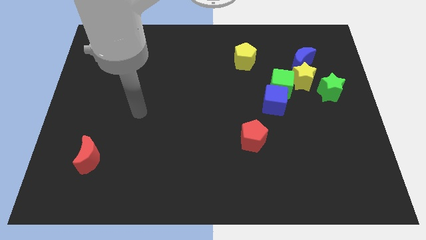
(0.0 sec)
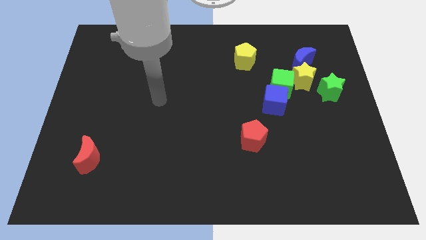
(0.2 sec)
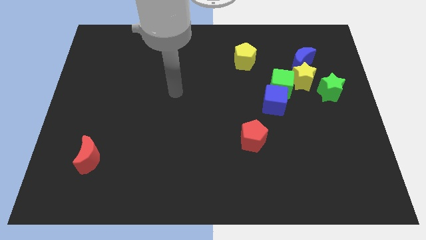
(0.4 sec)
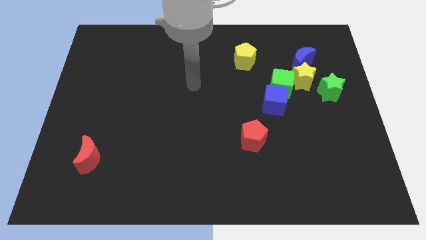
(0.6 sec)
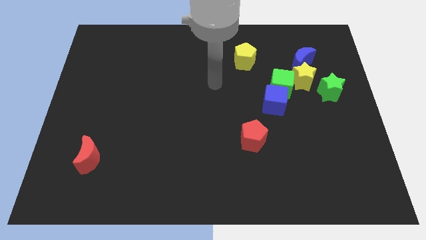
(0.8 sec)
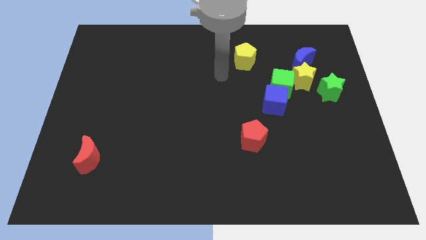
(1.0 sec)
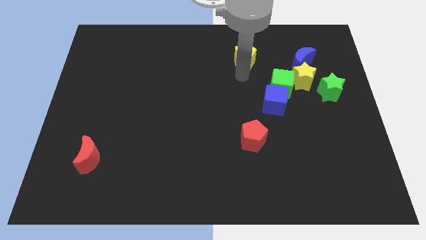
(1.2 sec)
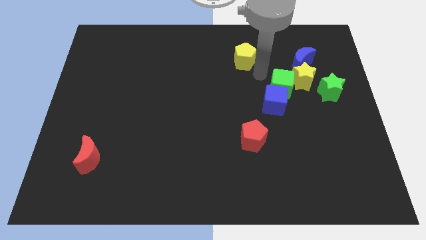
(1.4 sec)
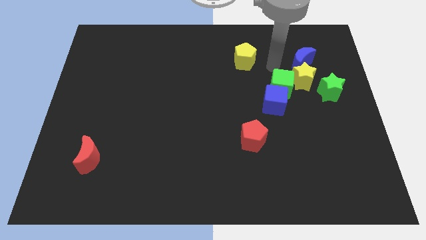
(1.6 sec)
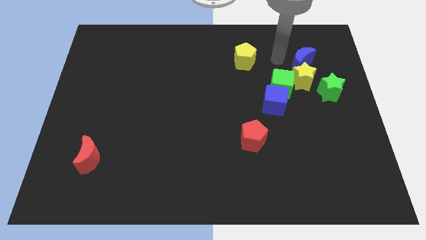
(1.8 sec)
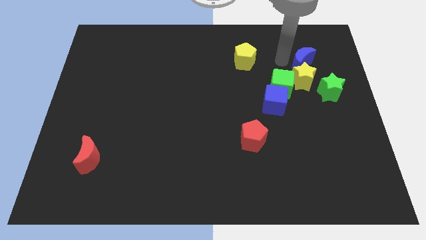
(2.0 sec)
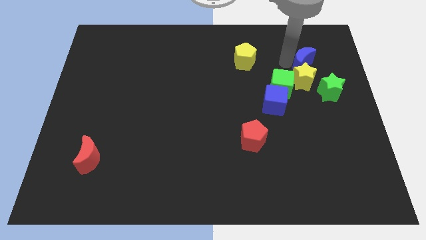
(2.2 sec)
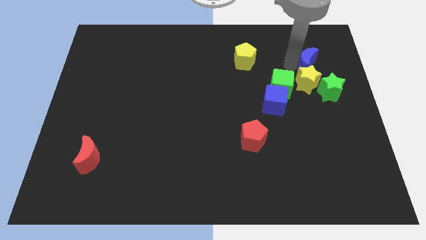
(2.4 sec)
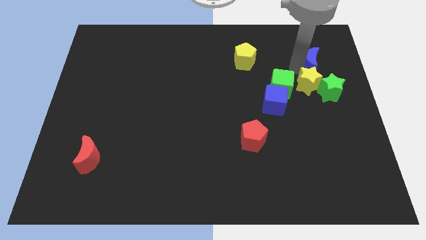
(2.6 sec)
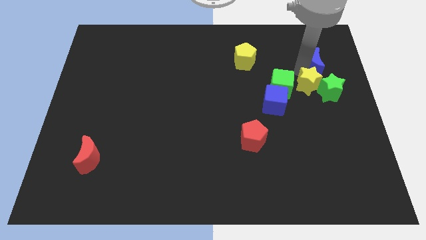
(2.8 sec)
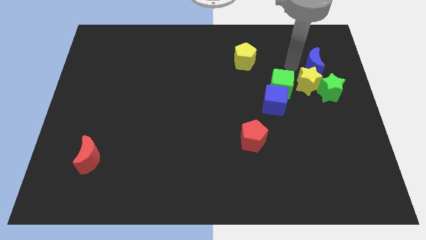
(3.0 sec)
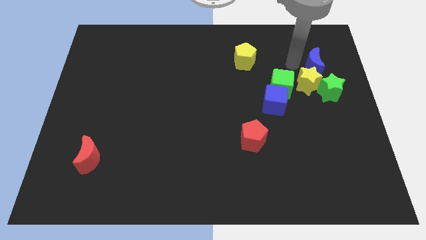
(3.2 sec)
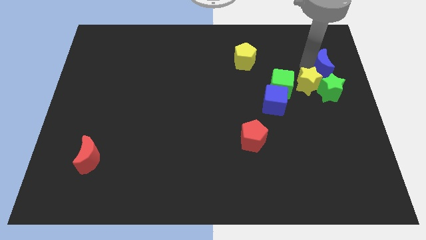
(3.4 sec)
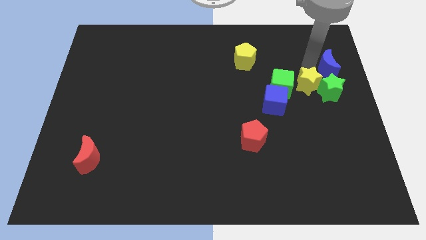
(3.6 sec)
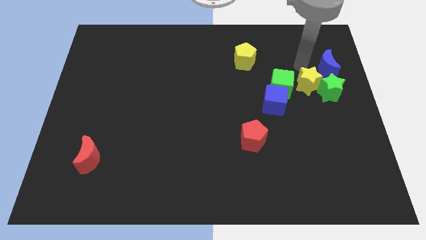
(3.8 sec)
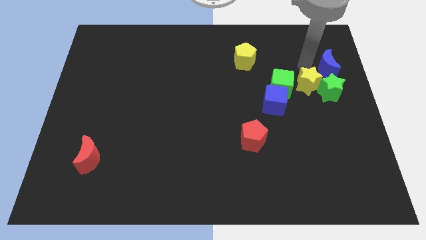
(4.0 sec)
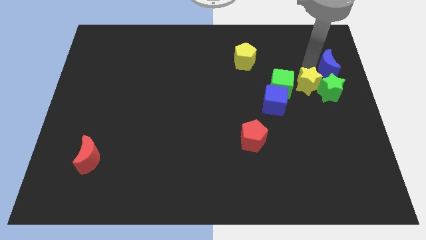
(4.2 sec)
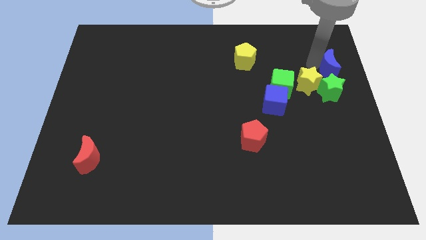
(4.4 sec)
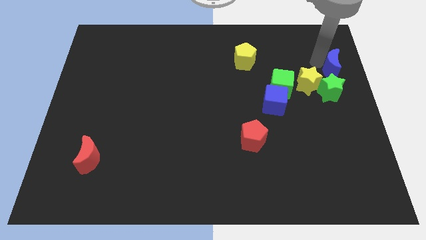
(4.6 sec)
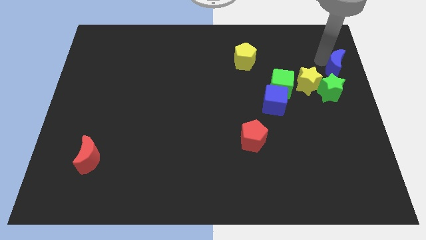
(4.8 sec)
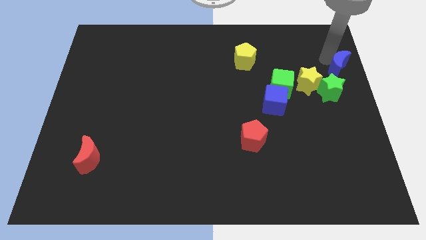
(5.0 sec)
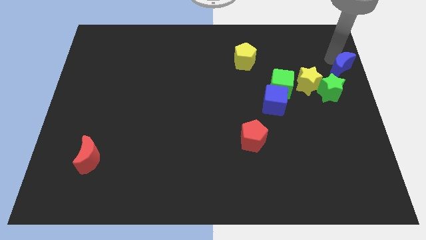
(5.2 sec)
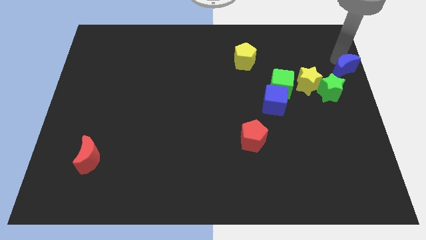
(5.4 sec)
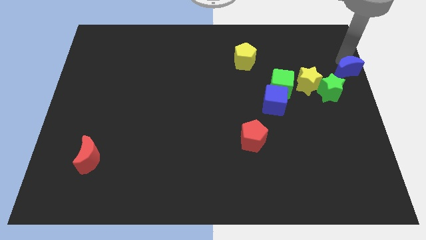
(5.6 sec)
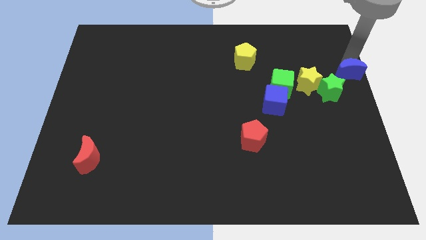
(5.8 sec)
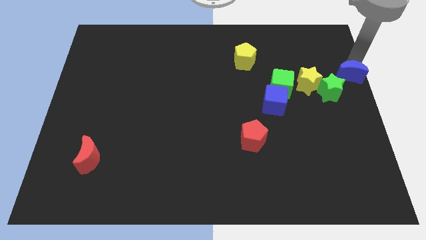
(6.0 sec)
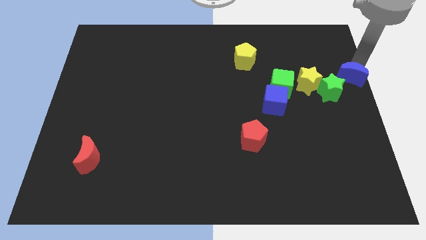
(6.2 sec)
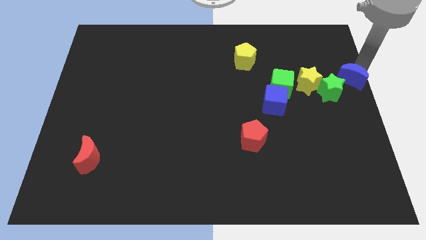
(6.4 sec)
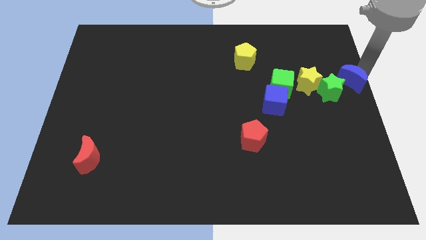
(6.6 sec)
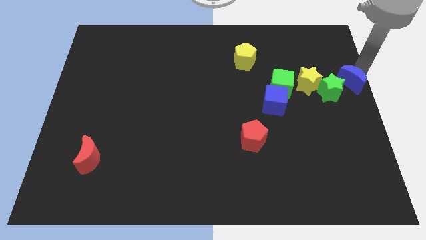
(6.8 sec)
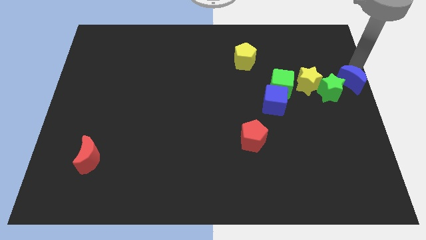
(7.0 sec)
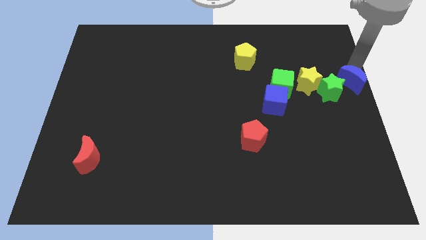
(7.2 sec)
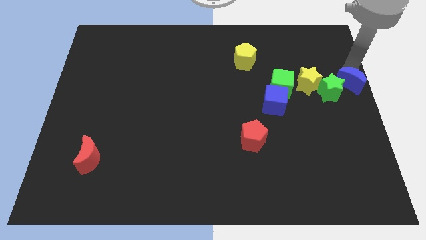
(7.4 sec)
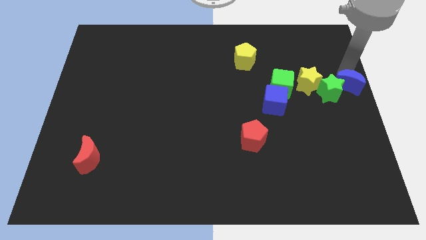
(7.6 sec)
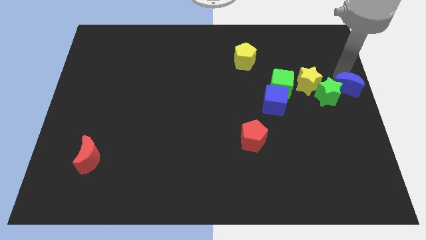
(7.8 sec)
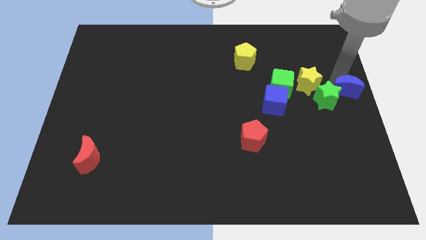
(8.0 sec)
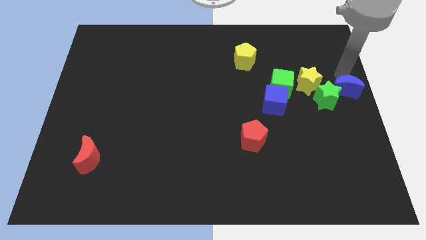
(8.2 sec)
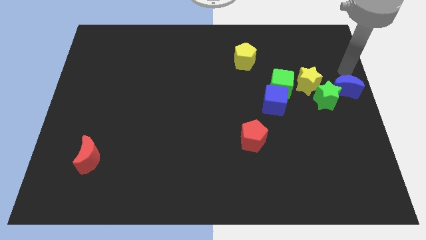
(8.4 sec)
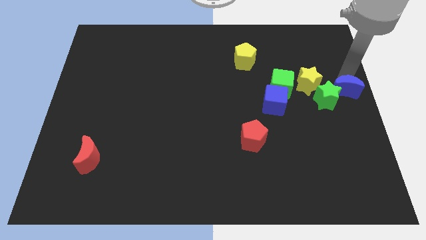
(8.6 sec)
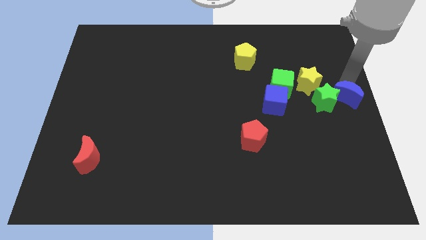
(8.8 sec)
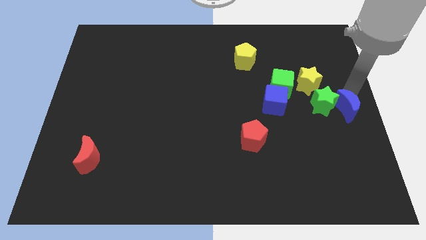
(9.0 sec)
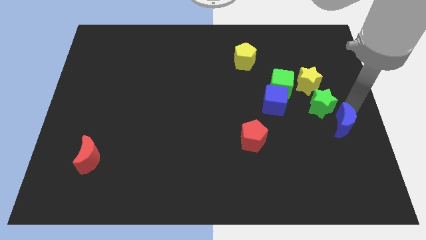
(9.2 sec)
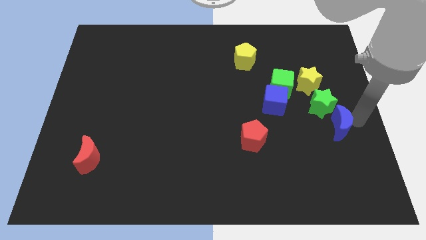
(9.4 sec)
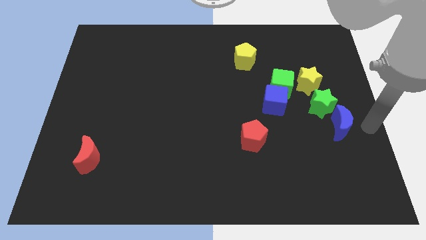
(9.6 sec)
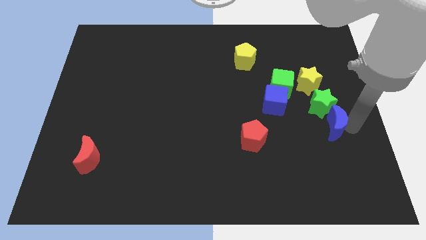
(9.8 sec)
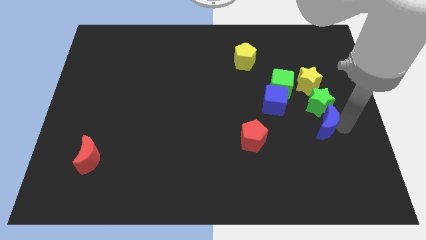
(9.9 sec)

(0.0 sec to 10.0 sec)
slide the blue moon diagonally down and to the left of the green star

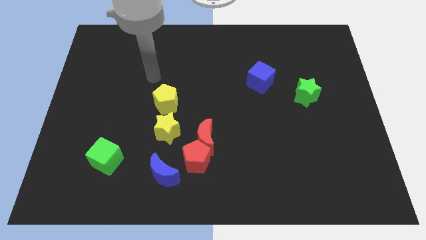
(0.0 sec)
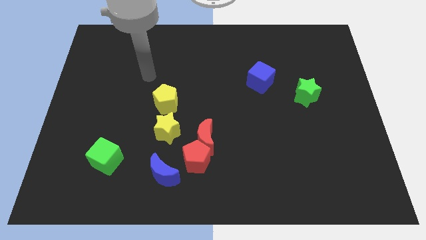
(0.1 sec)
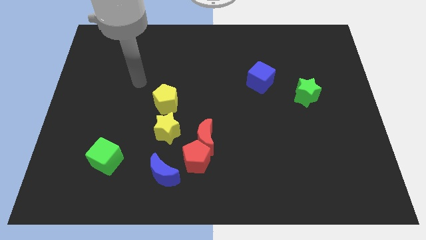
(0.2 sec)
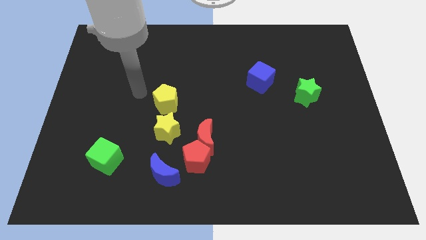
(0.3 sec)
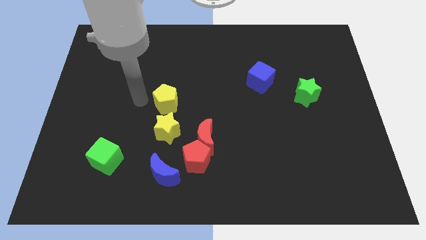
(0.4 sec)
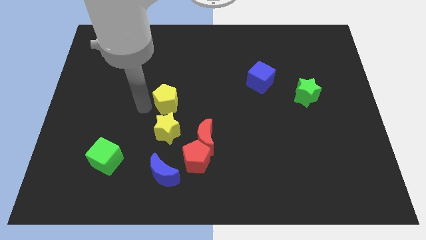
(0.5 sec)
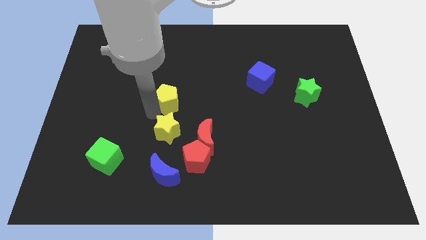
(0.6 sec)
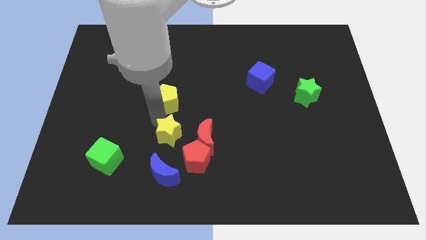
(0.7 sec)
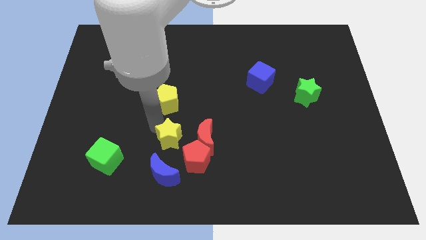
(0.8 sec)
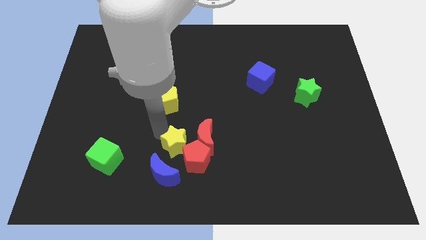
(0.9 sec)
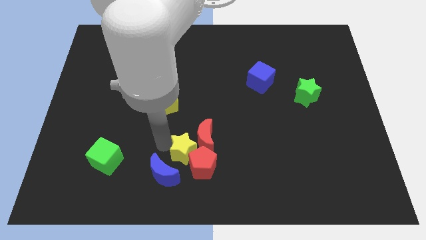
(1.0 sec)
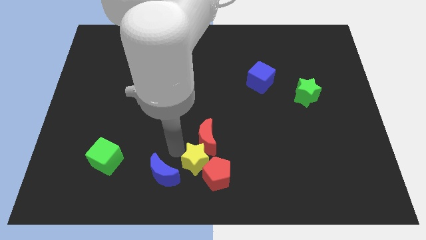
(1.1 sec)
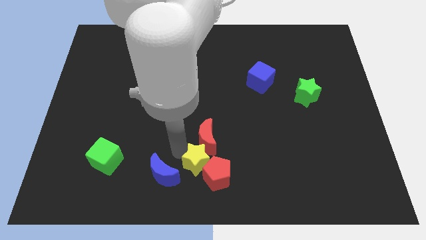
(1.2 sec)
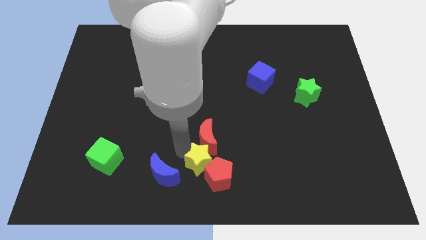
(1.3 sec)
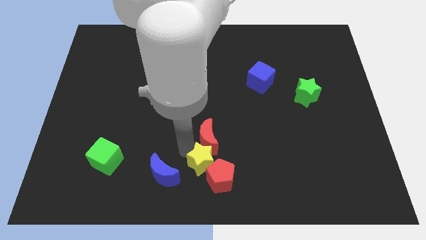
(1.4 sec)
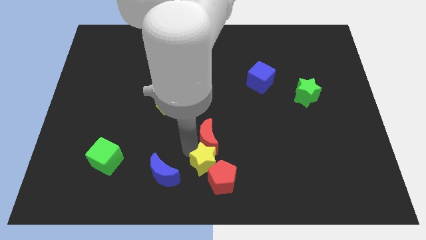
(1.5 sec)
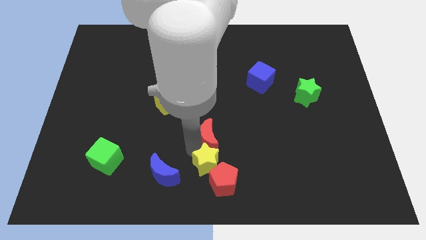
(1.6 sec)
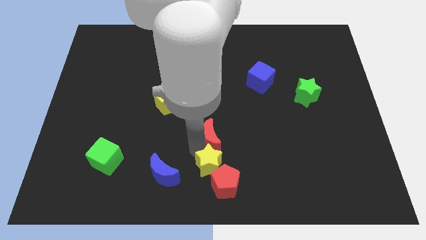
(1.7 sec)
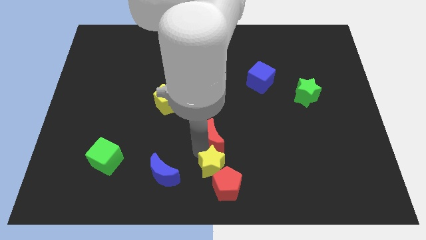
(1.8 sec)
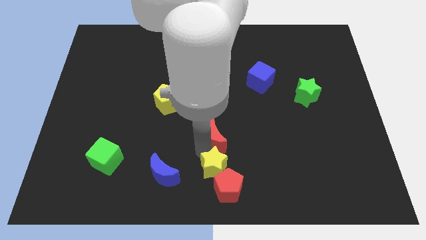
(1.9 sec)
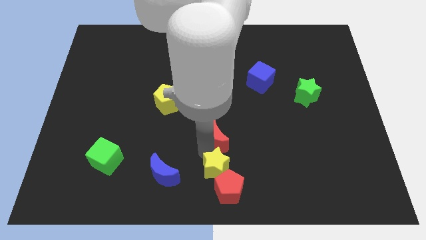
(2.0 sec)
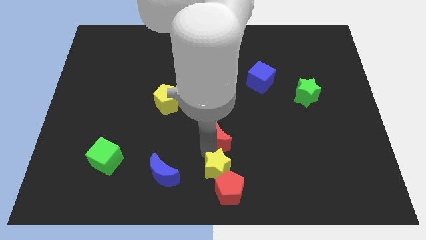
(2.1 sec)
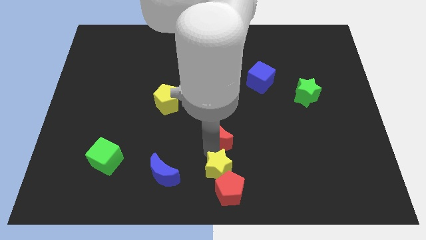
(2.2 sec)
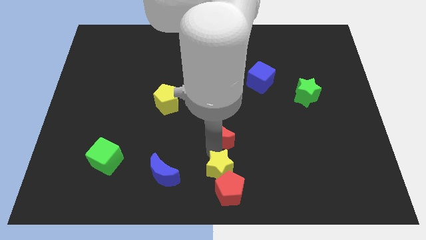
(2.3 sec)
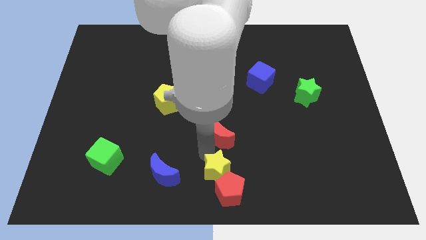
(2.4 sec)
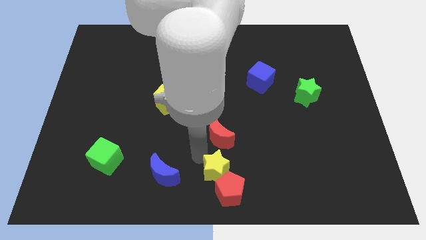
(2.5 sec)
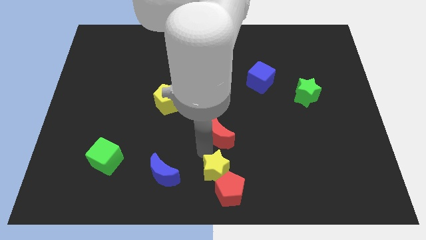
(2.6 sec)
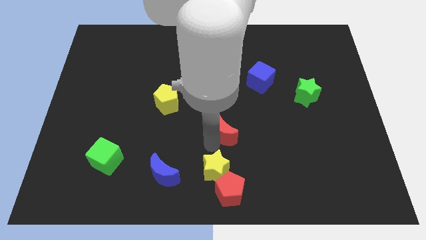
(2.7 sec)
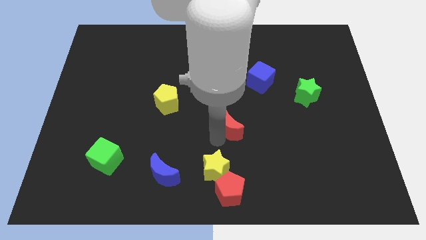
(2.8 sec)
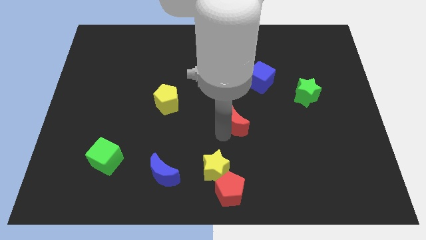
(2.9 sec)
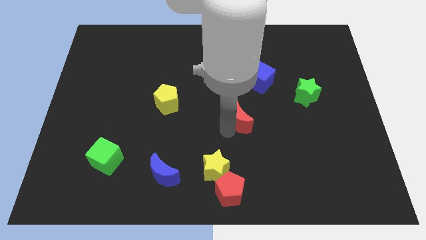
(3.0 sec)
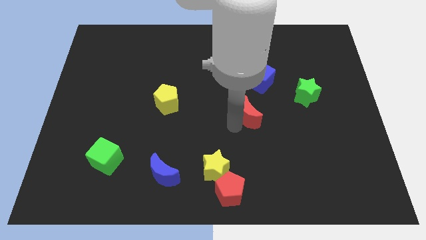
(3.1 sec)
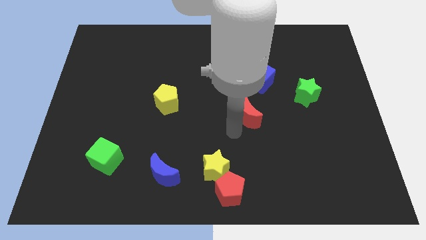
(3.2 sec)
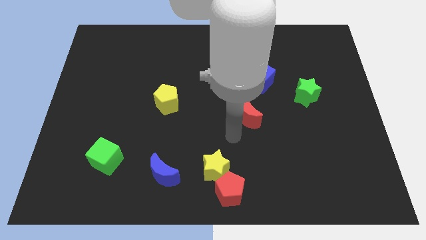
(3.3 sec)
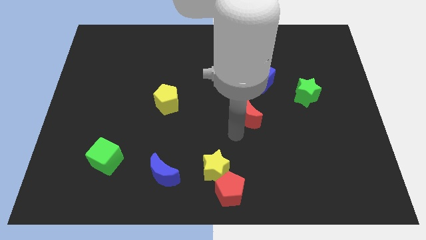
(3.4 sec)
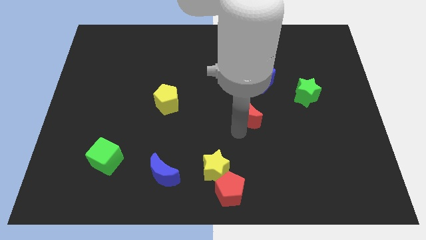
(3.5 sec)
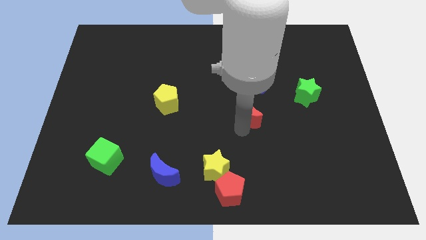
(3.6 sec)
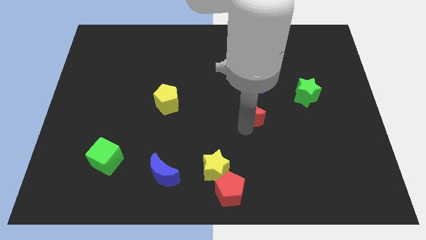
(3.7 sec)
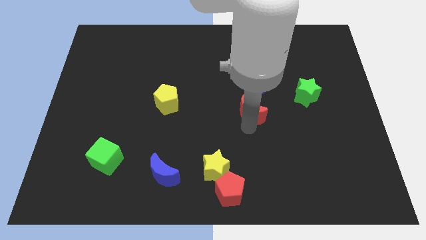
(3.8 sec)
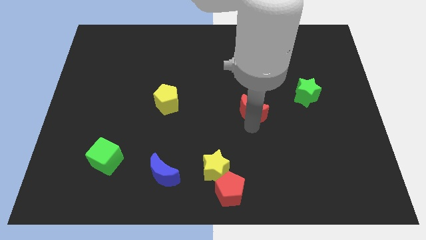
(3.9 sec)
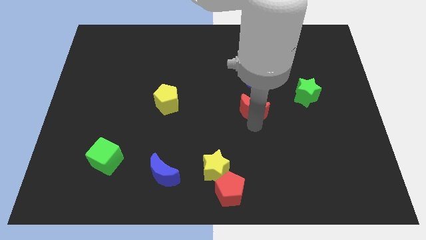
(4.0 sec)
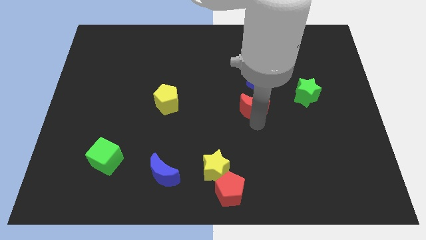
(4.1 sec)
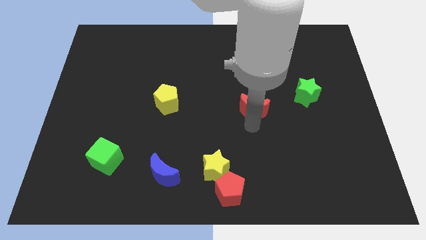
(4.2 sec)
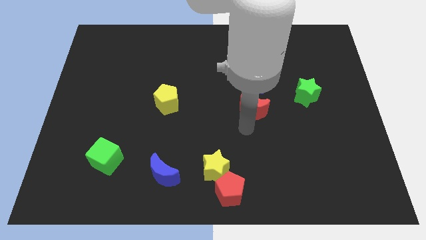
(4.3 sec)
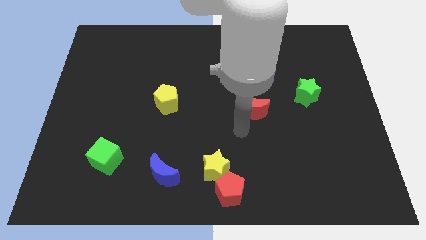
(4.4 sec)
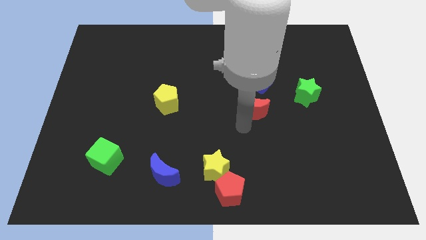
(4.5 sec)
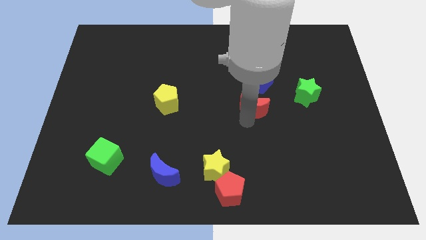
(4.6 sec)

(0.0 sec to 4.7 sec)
move the red moon left of the green star
